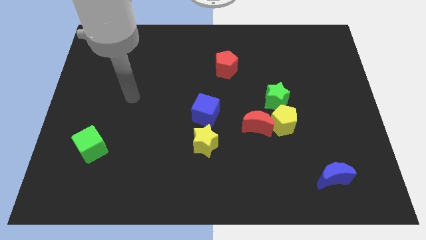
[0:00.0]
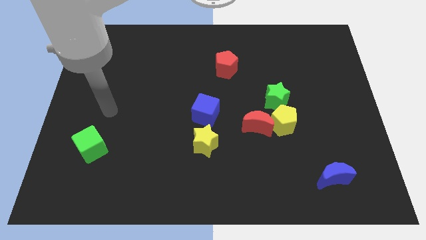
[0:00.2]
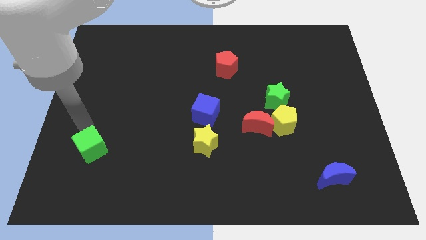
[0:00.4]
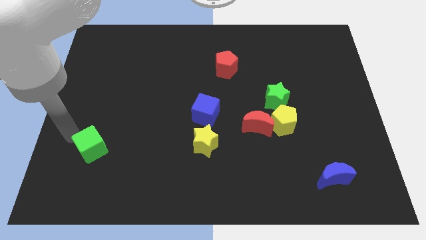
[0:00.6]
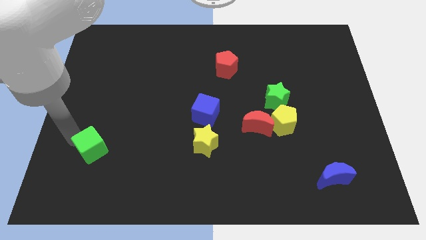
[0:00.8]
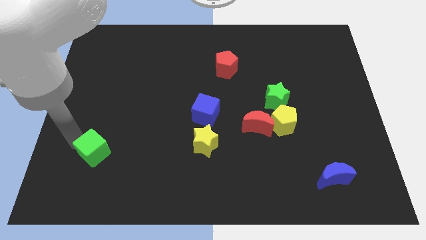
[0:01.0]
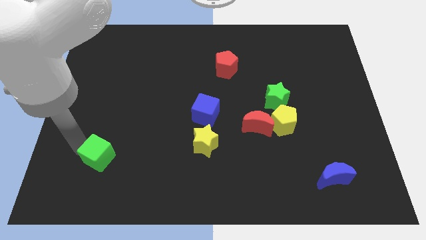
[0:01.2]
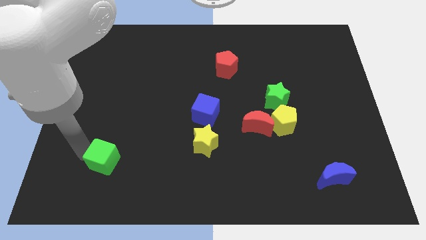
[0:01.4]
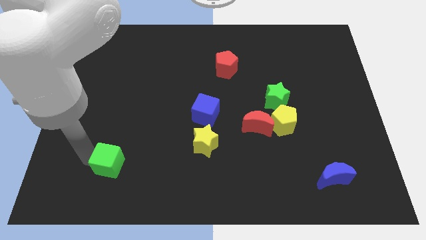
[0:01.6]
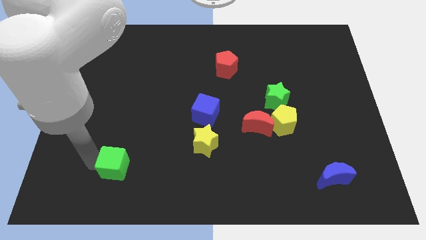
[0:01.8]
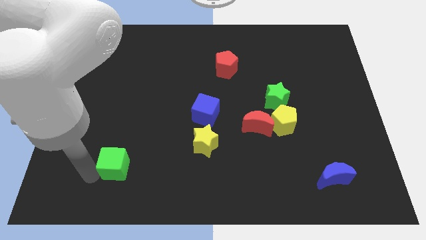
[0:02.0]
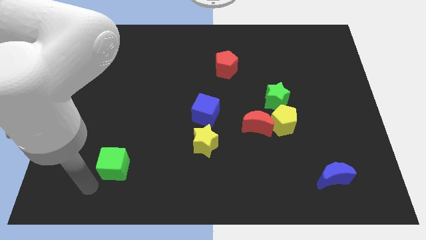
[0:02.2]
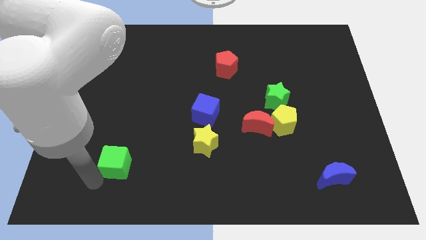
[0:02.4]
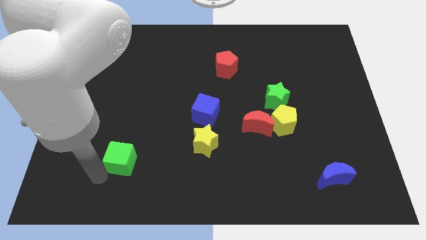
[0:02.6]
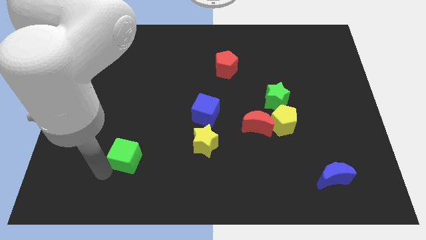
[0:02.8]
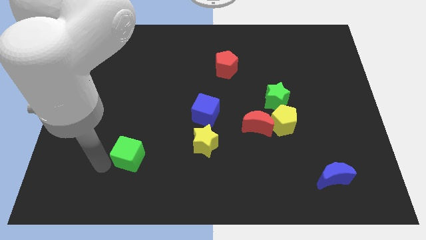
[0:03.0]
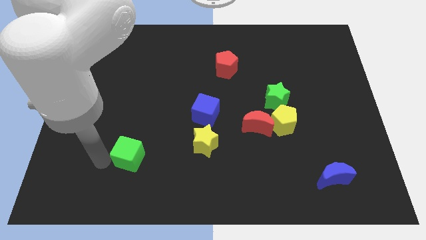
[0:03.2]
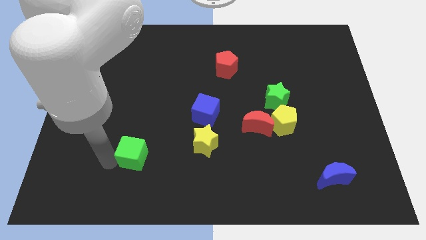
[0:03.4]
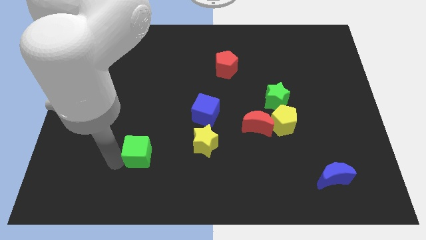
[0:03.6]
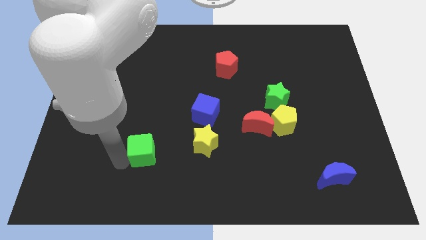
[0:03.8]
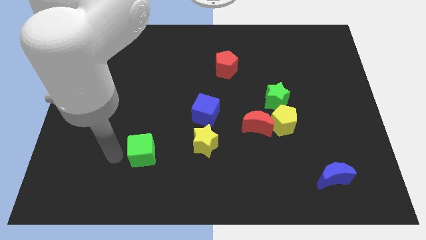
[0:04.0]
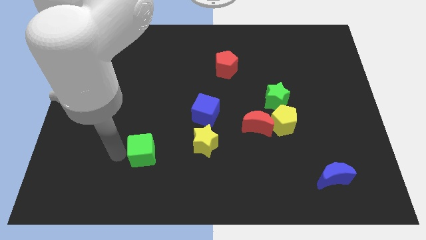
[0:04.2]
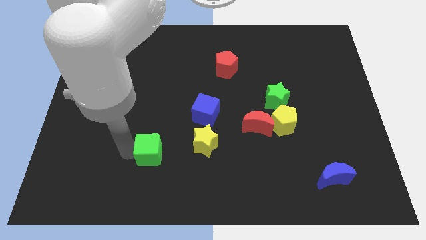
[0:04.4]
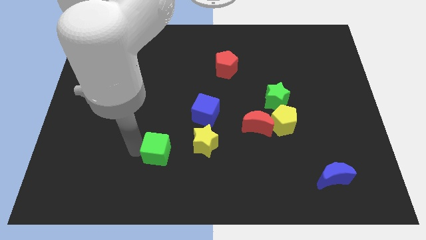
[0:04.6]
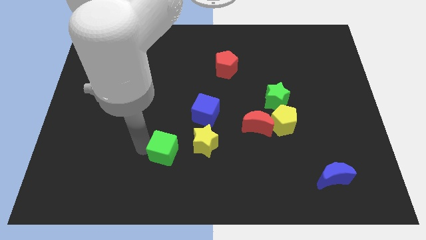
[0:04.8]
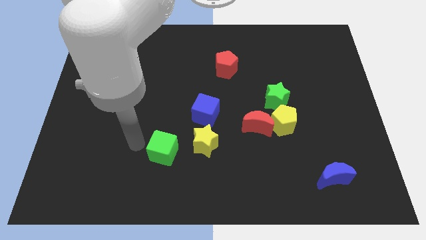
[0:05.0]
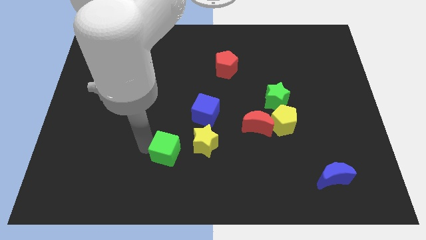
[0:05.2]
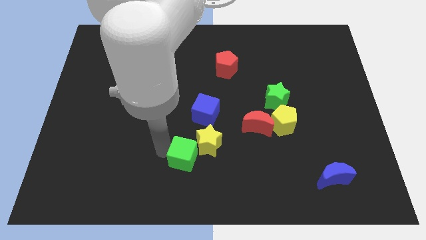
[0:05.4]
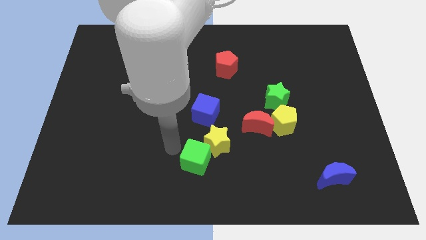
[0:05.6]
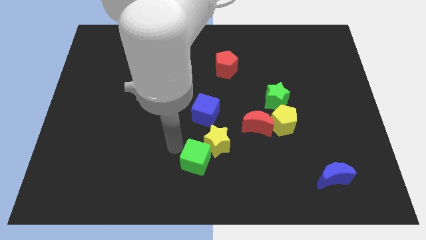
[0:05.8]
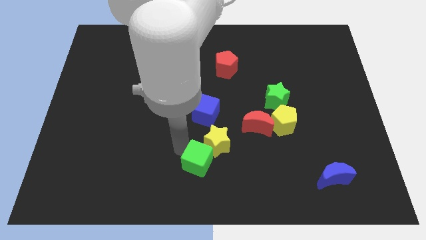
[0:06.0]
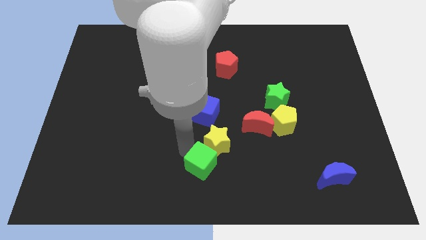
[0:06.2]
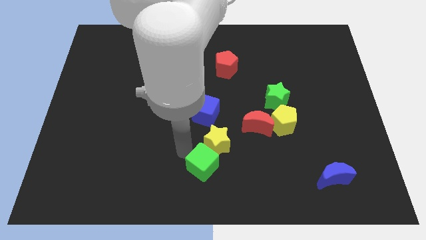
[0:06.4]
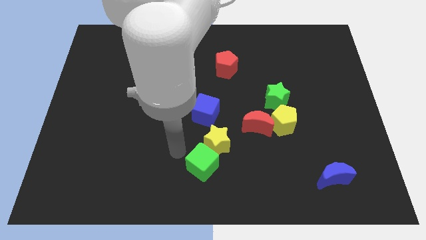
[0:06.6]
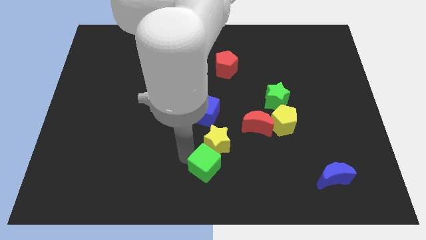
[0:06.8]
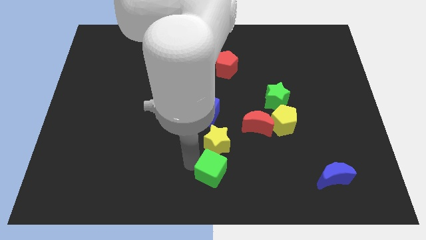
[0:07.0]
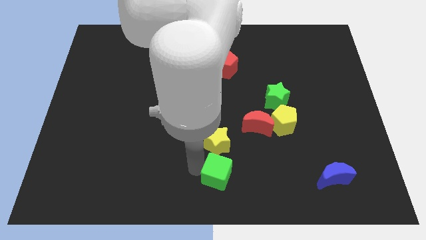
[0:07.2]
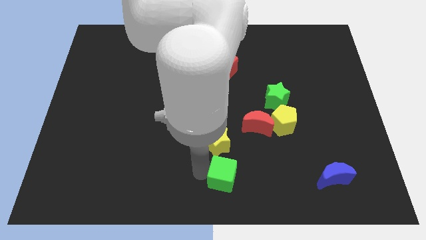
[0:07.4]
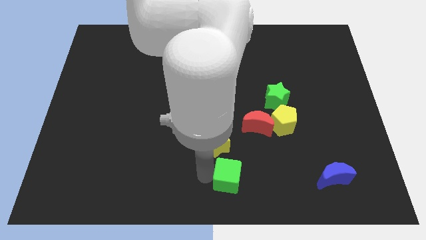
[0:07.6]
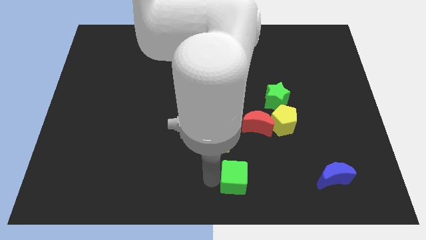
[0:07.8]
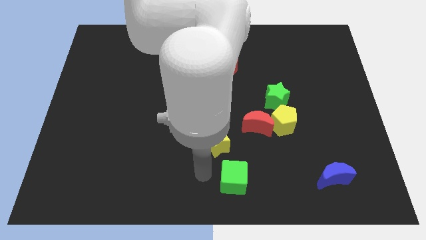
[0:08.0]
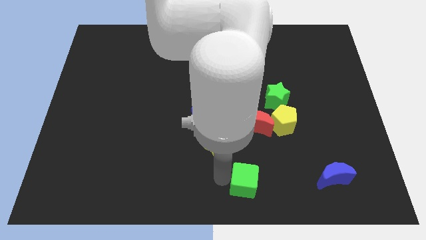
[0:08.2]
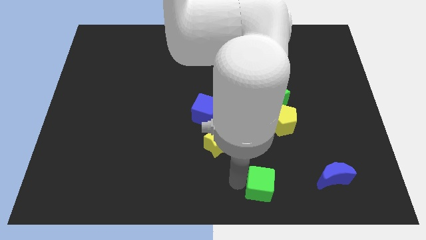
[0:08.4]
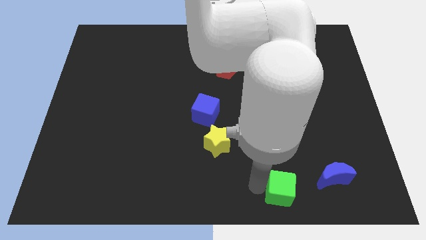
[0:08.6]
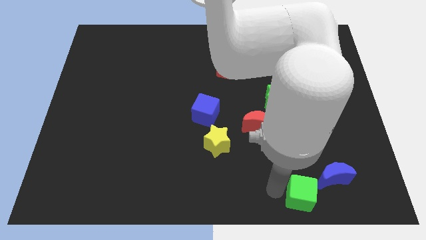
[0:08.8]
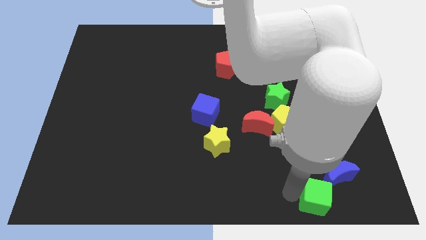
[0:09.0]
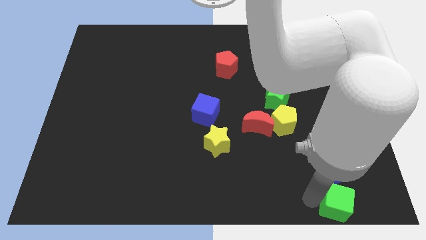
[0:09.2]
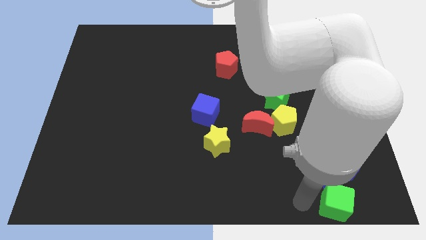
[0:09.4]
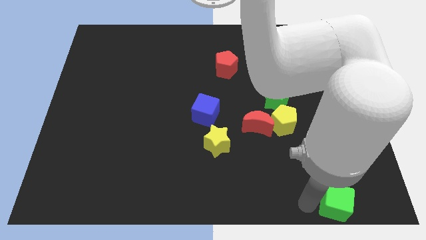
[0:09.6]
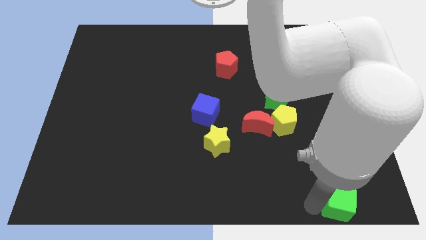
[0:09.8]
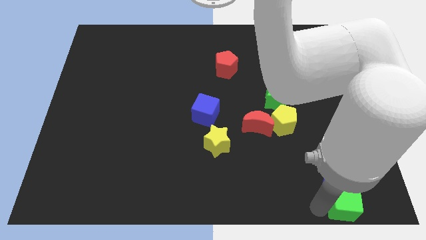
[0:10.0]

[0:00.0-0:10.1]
put the green cube to the bottom right corner

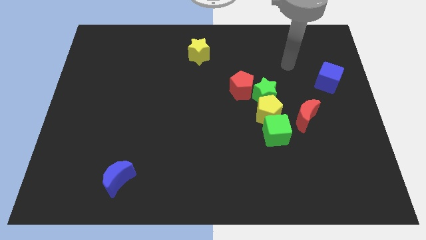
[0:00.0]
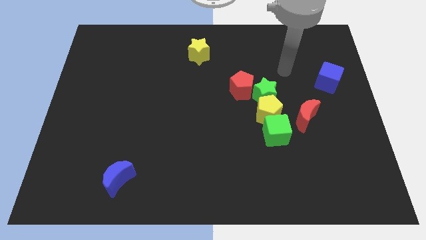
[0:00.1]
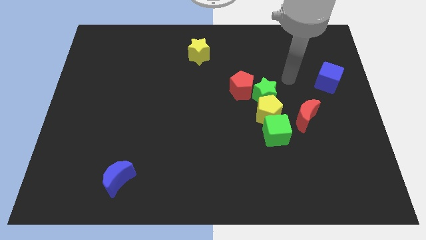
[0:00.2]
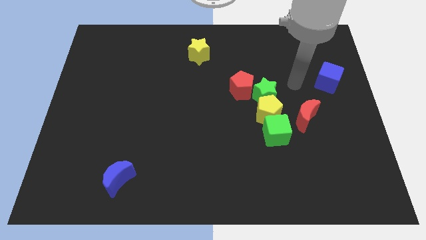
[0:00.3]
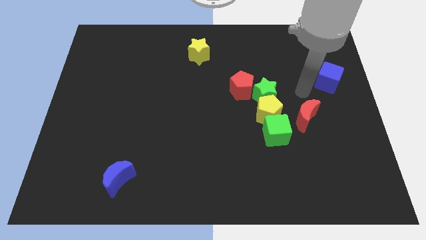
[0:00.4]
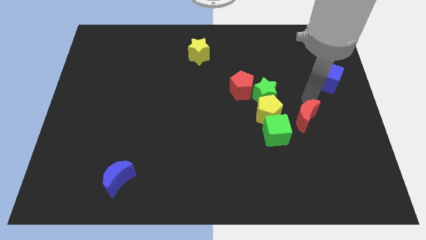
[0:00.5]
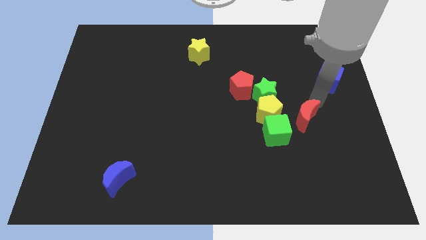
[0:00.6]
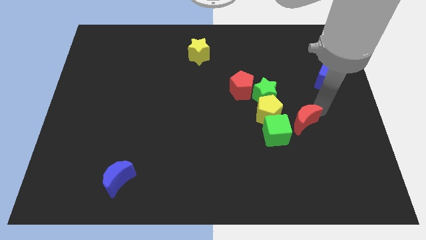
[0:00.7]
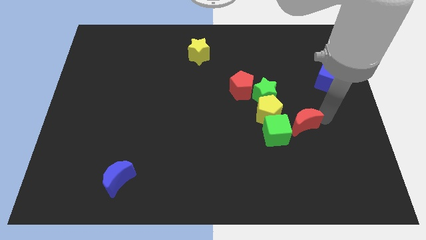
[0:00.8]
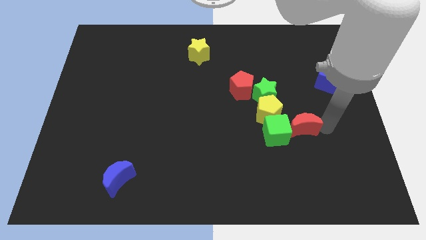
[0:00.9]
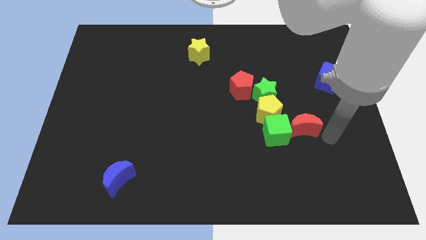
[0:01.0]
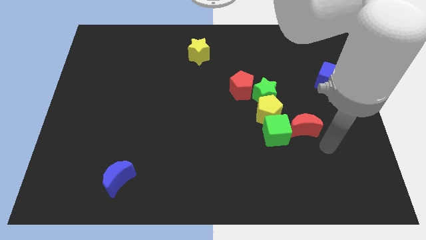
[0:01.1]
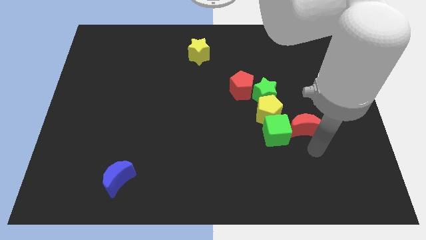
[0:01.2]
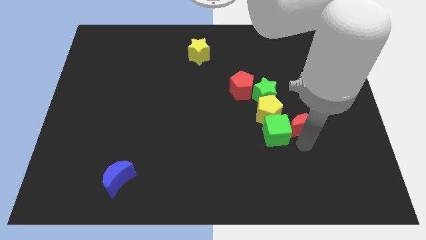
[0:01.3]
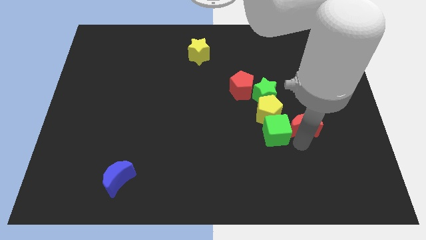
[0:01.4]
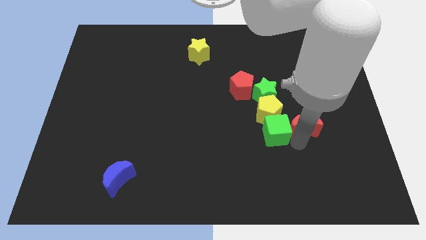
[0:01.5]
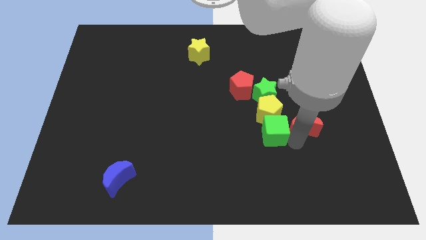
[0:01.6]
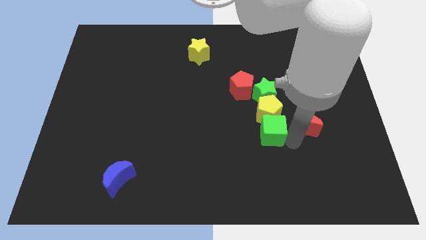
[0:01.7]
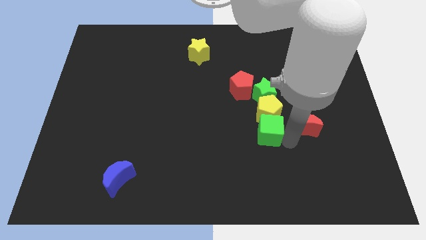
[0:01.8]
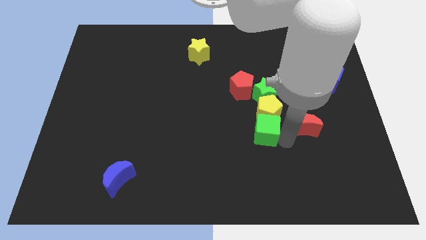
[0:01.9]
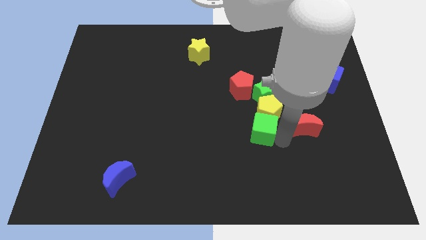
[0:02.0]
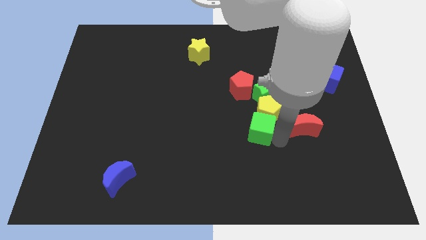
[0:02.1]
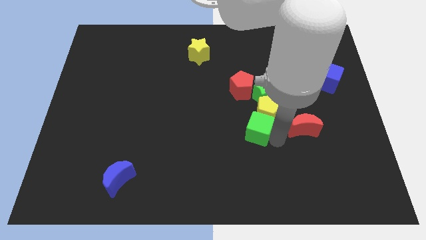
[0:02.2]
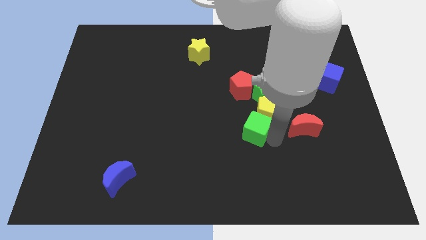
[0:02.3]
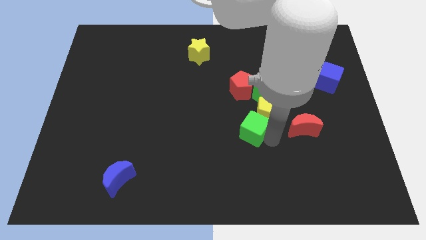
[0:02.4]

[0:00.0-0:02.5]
move the green cube to the middle
